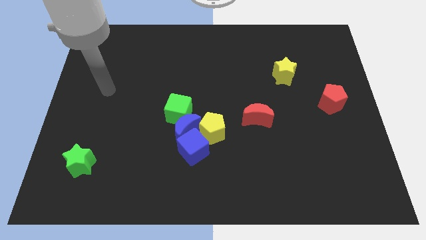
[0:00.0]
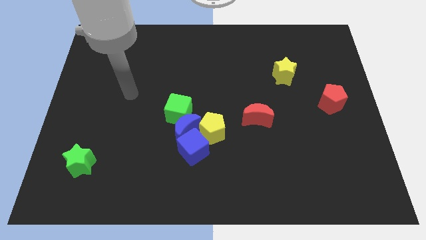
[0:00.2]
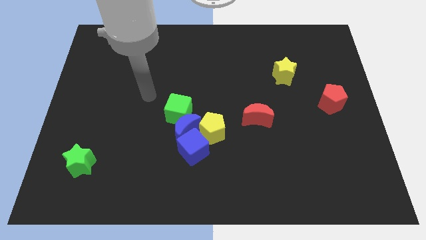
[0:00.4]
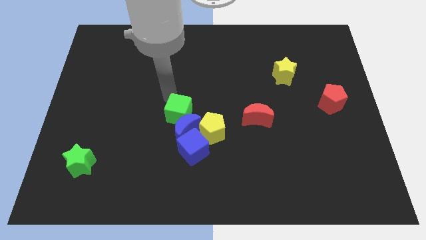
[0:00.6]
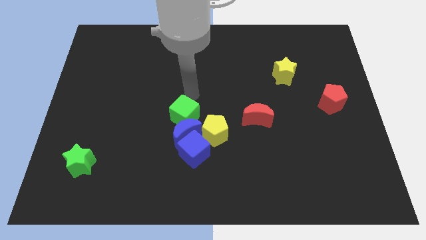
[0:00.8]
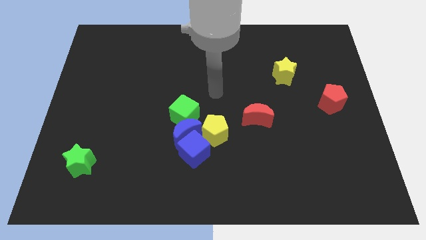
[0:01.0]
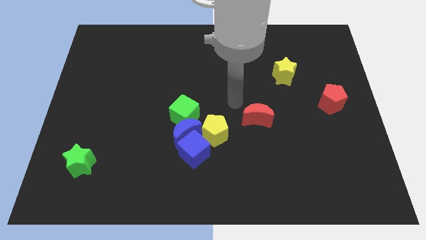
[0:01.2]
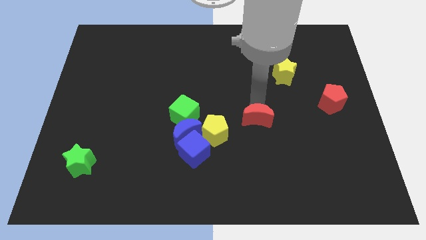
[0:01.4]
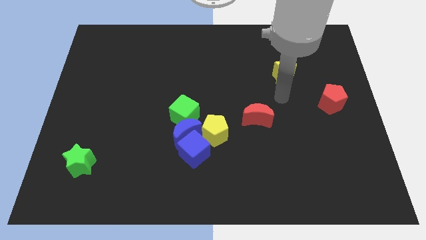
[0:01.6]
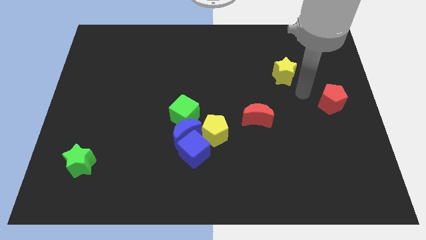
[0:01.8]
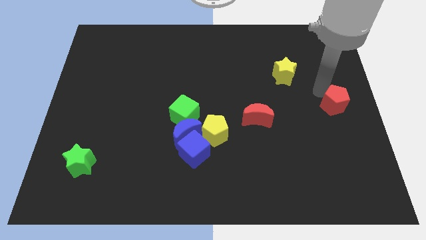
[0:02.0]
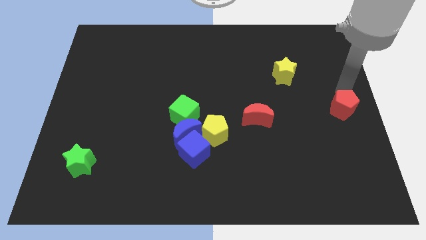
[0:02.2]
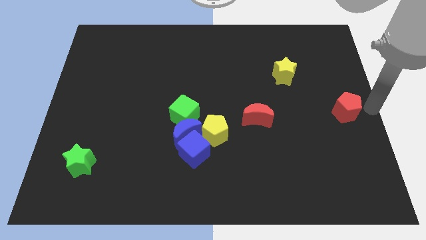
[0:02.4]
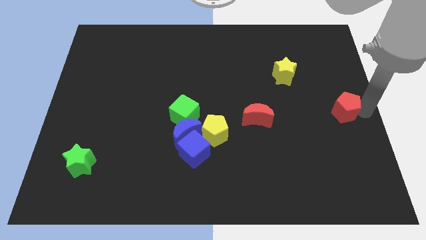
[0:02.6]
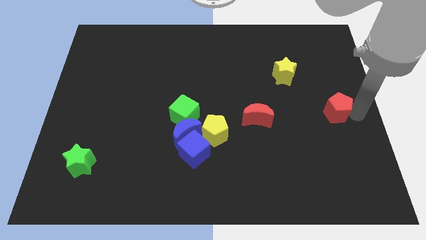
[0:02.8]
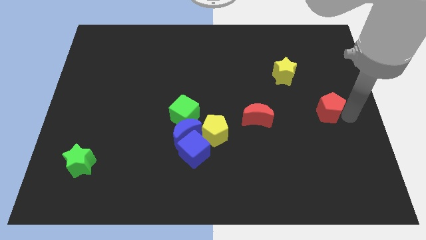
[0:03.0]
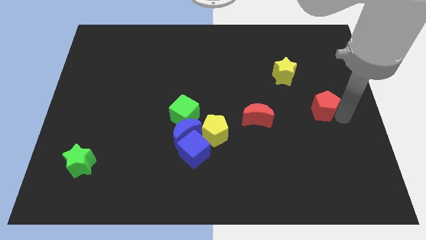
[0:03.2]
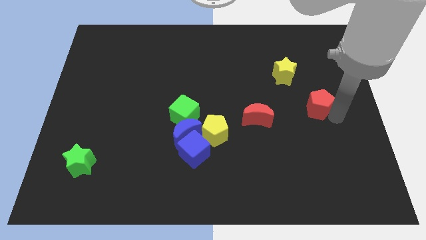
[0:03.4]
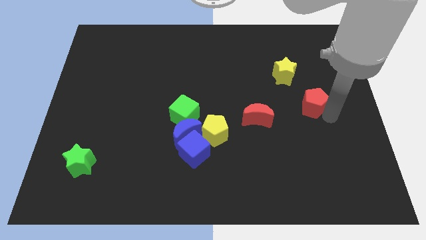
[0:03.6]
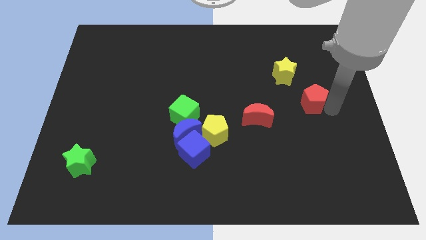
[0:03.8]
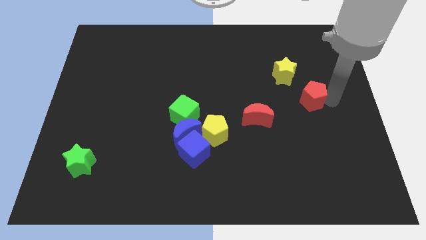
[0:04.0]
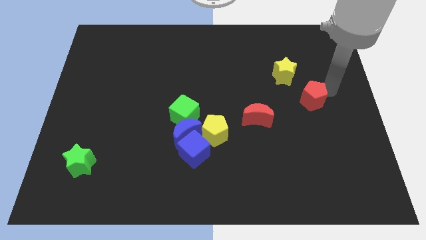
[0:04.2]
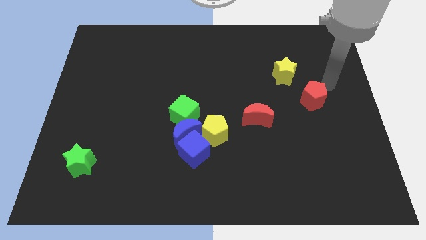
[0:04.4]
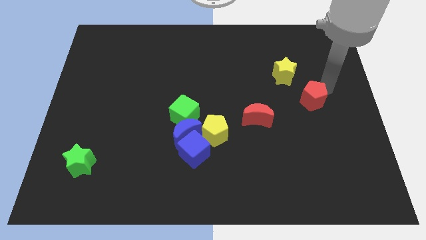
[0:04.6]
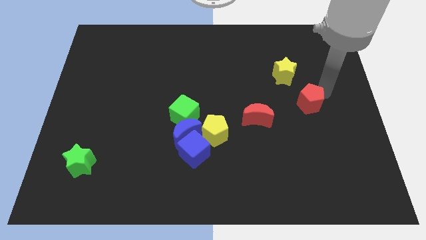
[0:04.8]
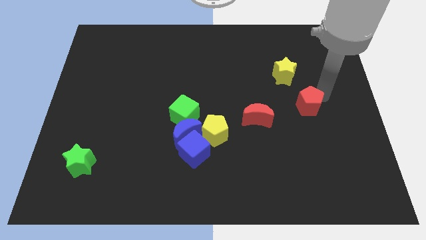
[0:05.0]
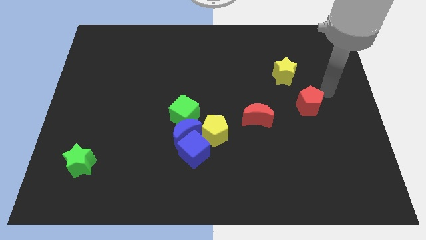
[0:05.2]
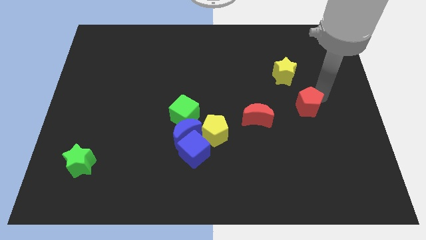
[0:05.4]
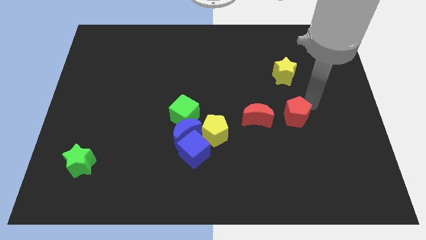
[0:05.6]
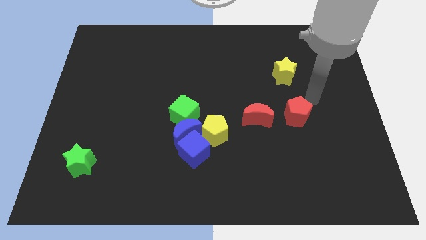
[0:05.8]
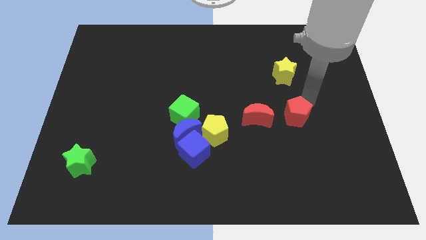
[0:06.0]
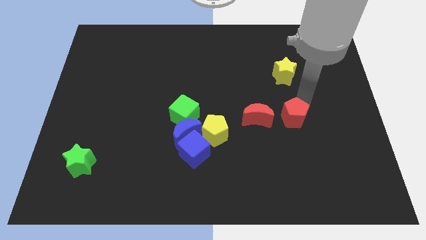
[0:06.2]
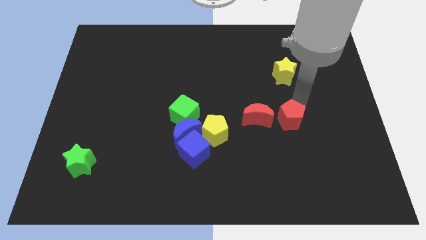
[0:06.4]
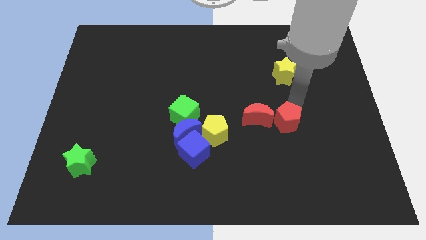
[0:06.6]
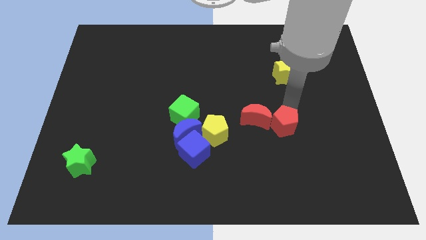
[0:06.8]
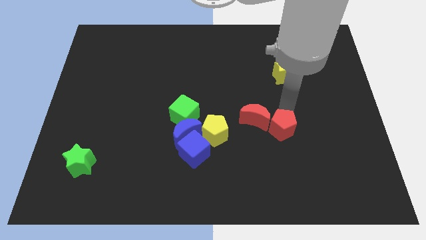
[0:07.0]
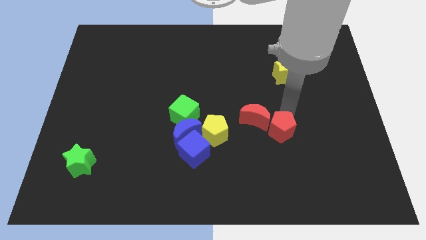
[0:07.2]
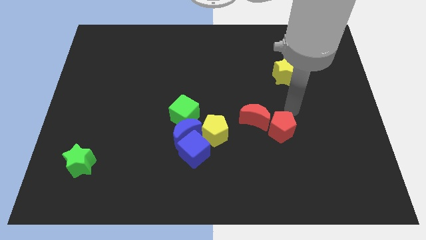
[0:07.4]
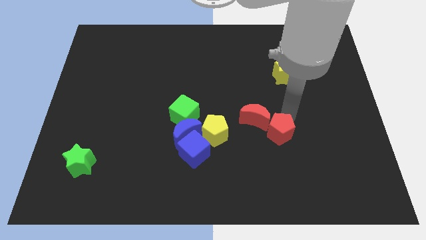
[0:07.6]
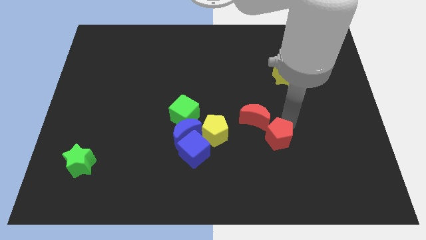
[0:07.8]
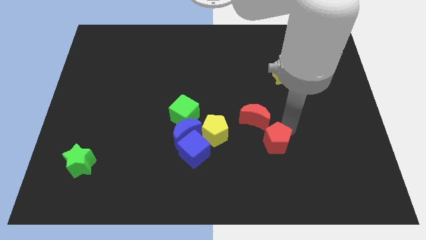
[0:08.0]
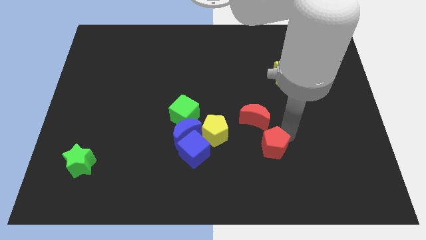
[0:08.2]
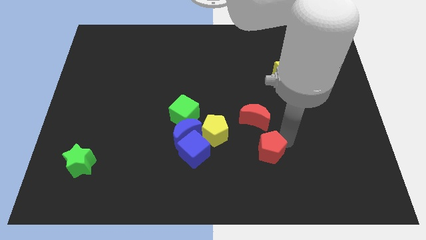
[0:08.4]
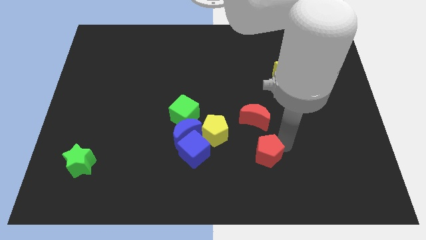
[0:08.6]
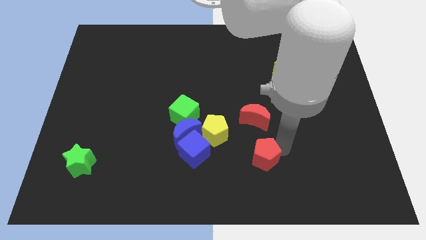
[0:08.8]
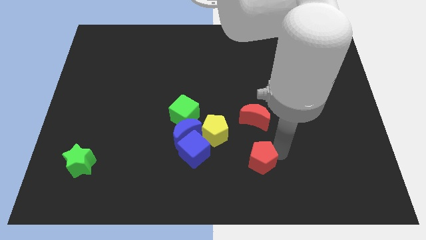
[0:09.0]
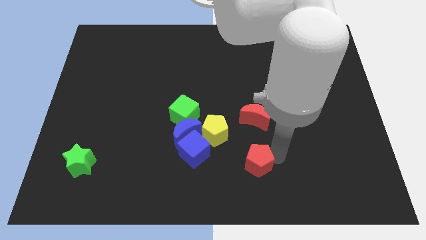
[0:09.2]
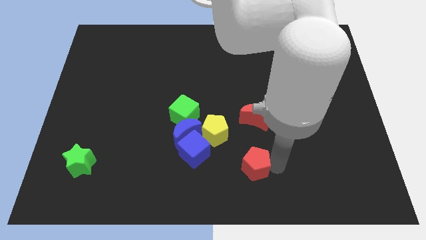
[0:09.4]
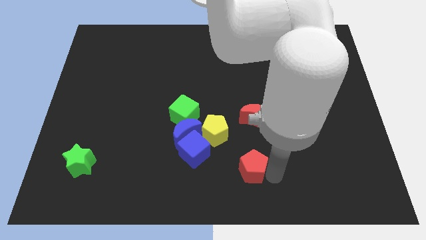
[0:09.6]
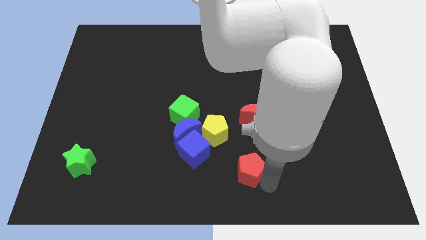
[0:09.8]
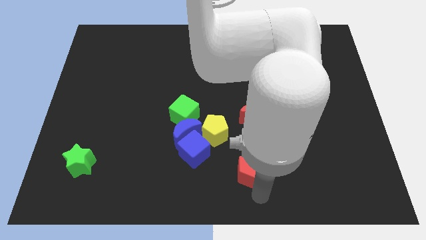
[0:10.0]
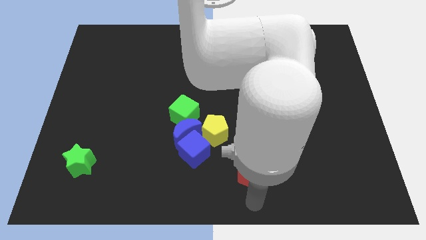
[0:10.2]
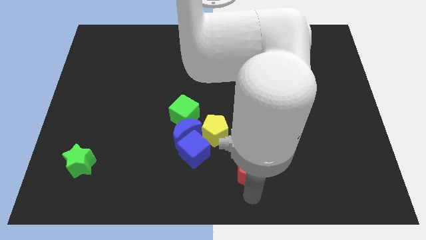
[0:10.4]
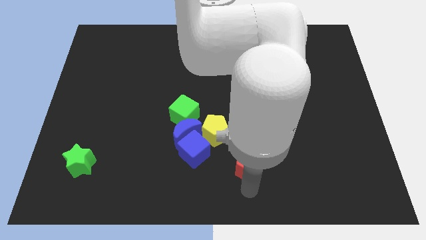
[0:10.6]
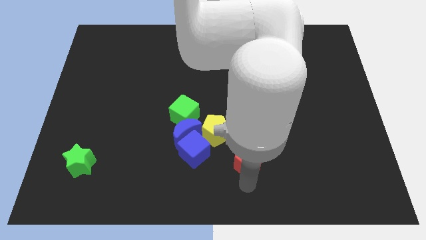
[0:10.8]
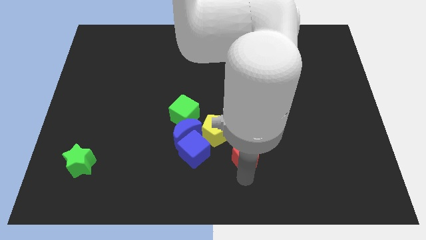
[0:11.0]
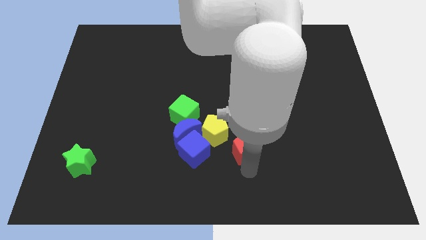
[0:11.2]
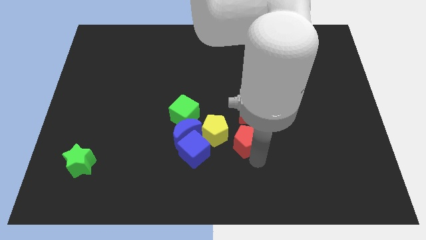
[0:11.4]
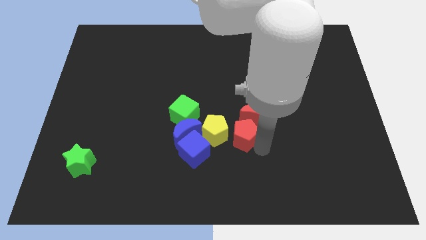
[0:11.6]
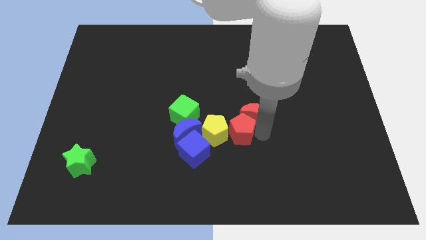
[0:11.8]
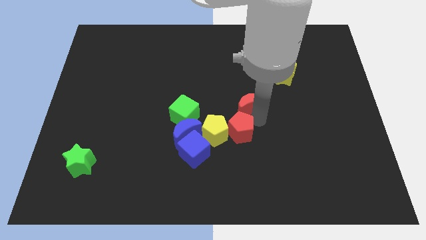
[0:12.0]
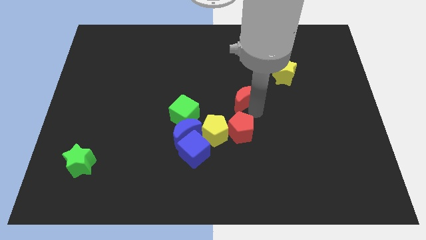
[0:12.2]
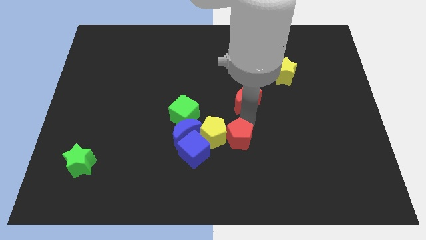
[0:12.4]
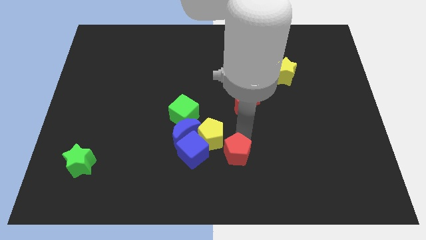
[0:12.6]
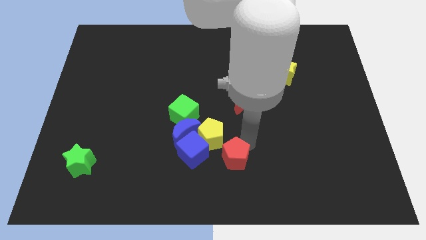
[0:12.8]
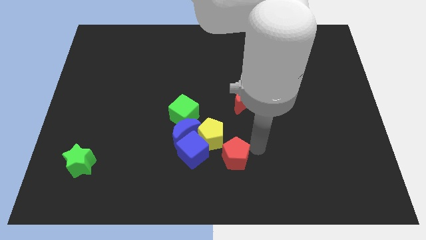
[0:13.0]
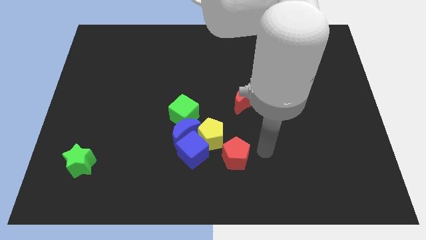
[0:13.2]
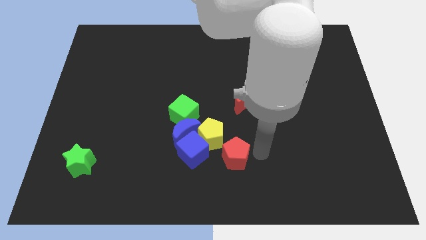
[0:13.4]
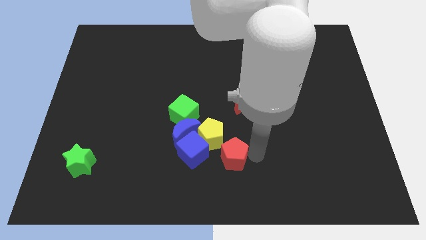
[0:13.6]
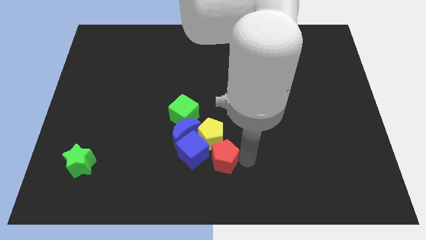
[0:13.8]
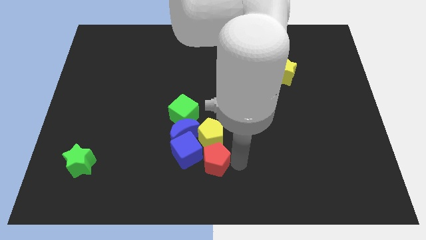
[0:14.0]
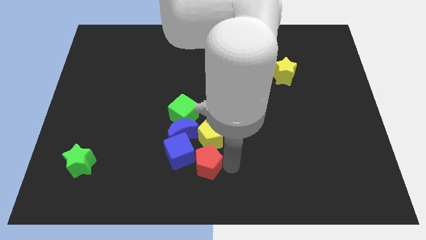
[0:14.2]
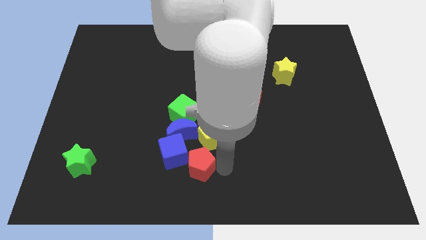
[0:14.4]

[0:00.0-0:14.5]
slide the red pentagon below the blue moon
